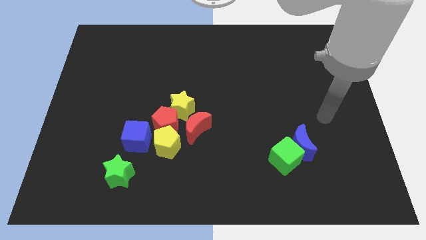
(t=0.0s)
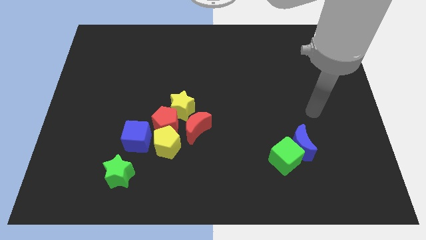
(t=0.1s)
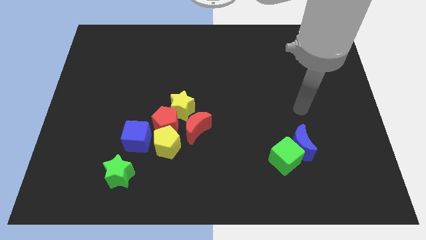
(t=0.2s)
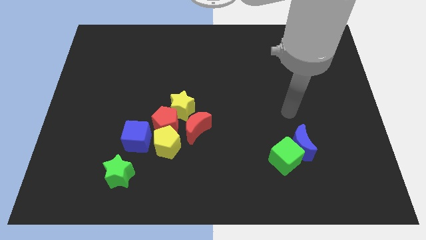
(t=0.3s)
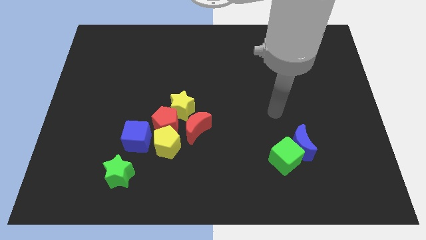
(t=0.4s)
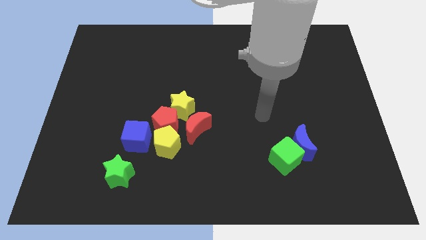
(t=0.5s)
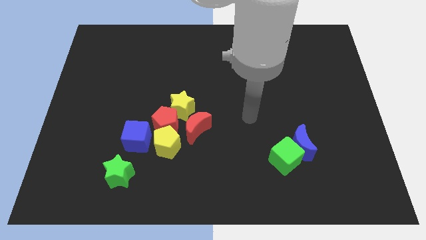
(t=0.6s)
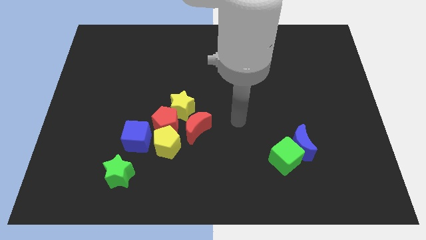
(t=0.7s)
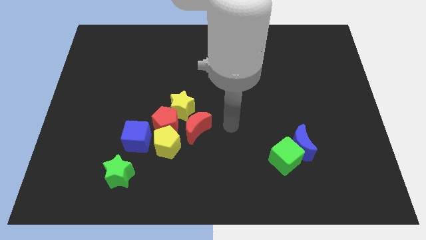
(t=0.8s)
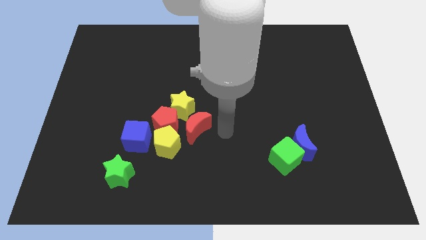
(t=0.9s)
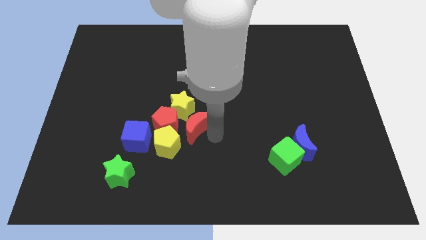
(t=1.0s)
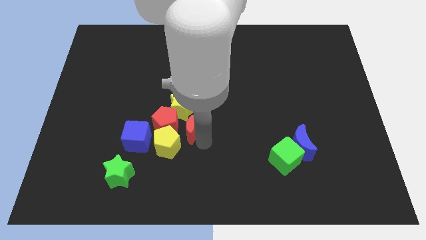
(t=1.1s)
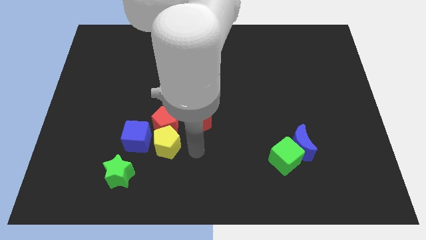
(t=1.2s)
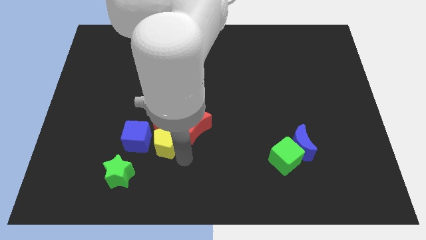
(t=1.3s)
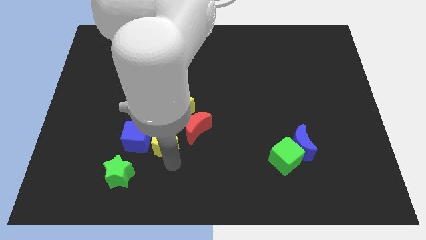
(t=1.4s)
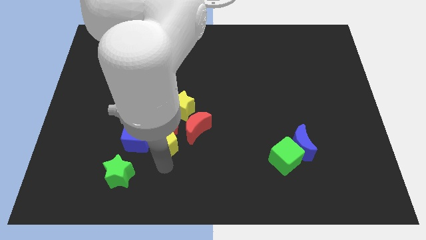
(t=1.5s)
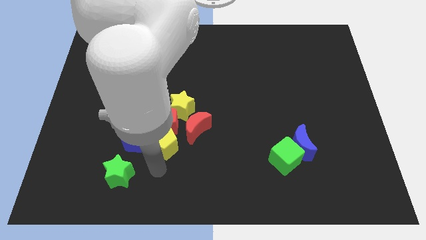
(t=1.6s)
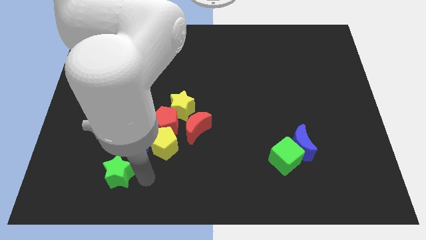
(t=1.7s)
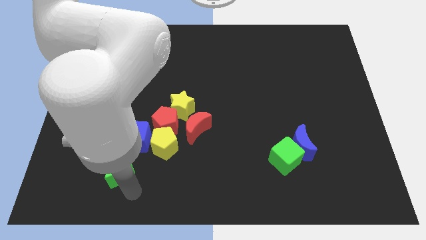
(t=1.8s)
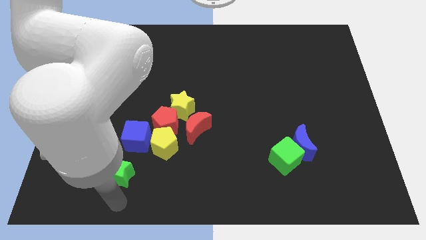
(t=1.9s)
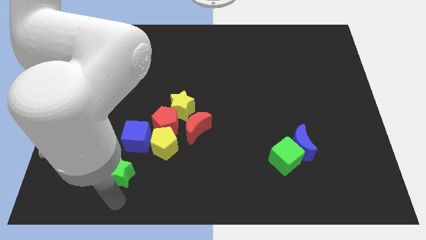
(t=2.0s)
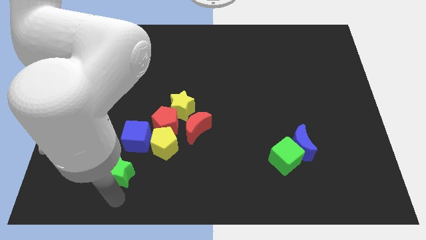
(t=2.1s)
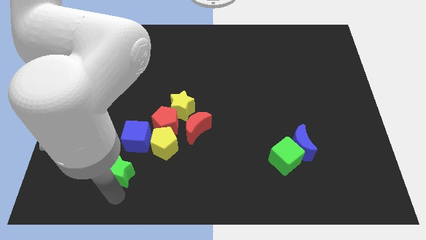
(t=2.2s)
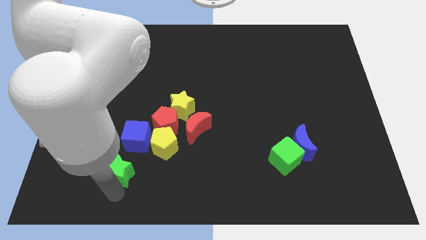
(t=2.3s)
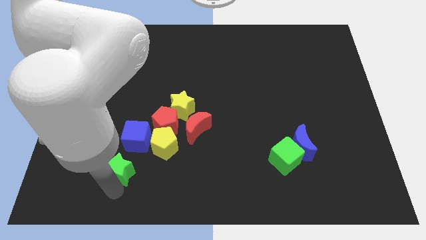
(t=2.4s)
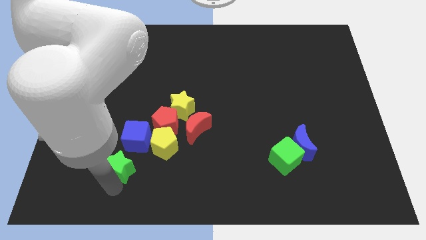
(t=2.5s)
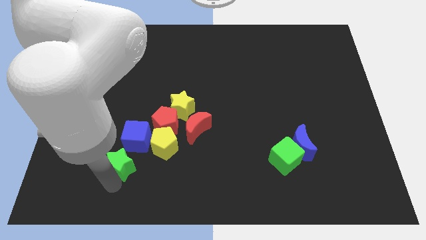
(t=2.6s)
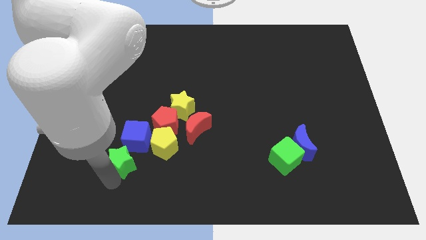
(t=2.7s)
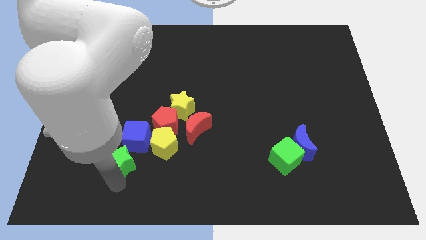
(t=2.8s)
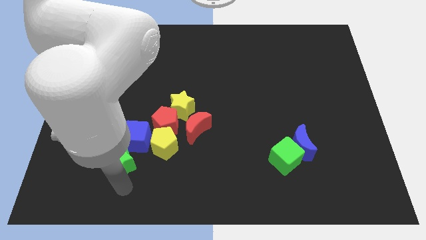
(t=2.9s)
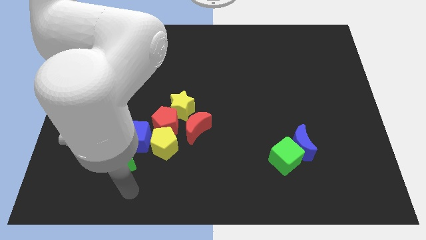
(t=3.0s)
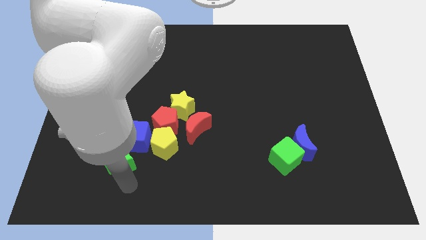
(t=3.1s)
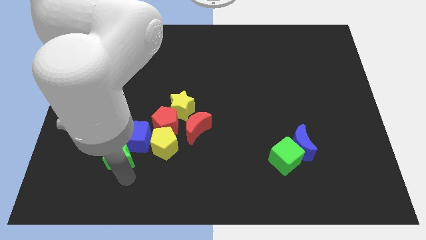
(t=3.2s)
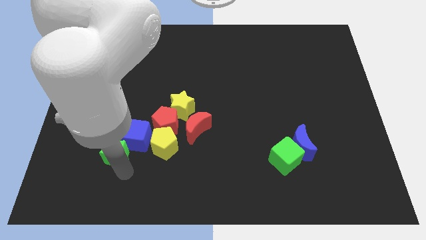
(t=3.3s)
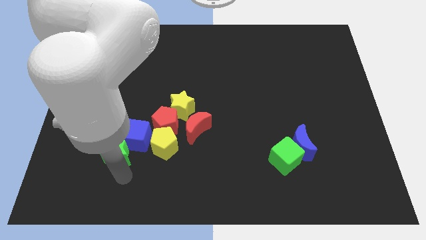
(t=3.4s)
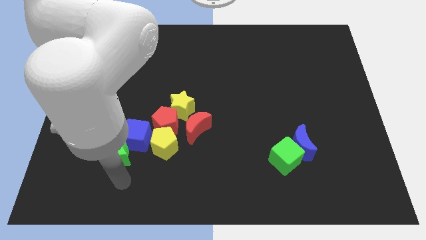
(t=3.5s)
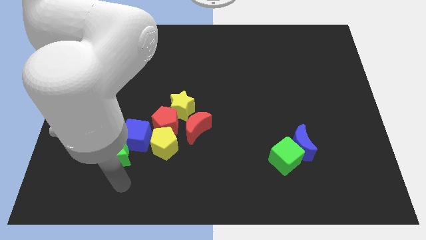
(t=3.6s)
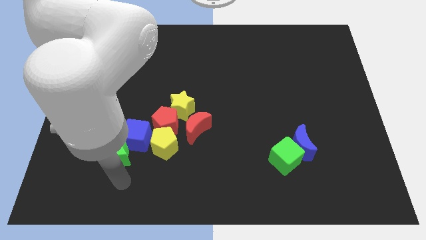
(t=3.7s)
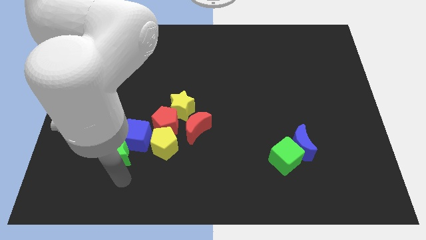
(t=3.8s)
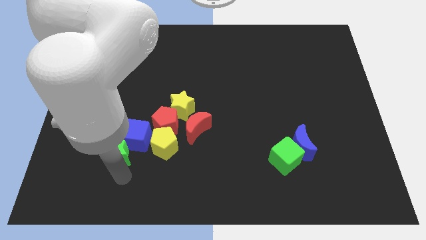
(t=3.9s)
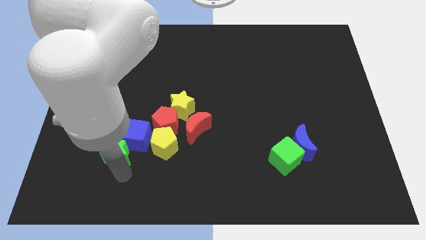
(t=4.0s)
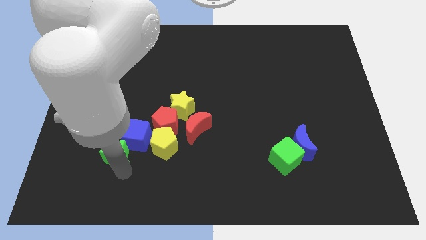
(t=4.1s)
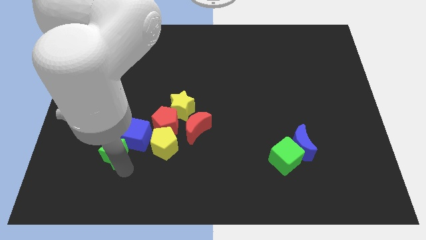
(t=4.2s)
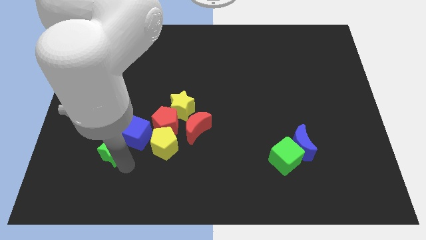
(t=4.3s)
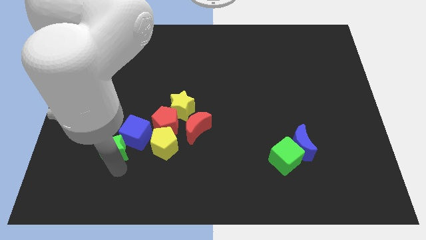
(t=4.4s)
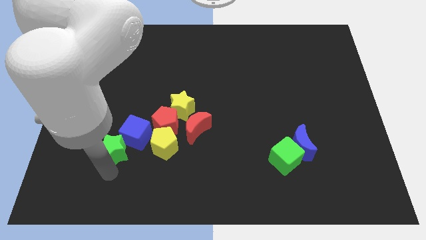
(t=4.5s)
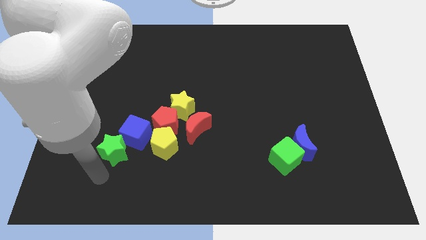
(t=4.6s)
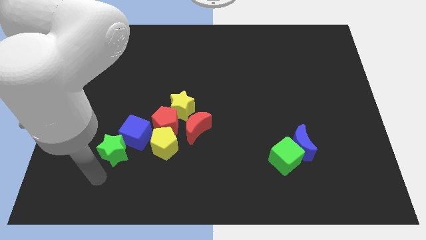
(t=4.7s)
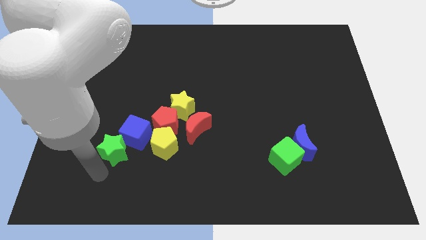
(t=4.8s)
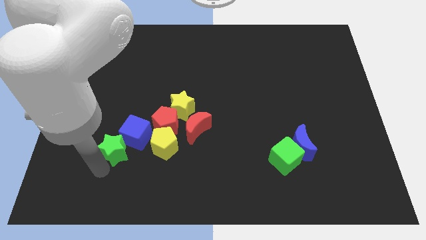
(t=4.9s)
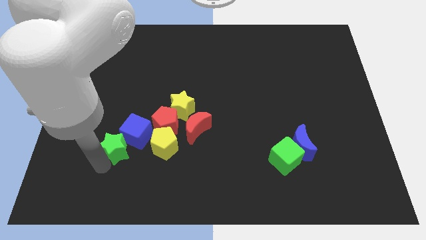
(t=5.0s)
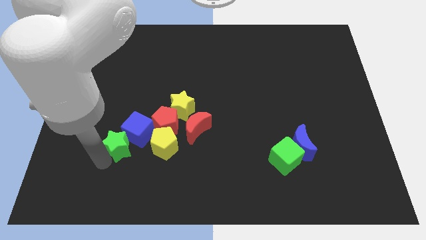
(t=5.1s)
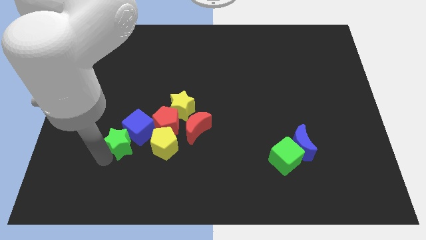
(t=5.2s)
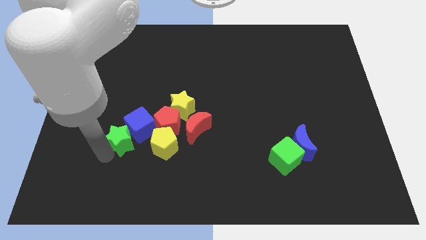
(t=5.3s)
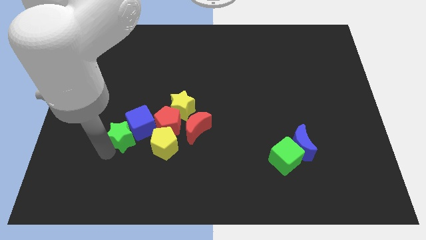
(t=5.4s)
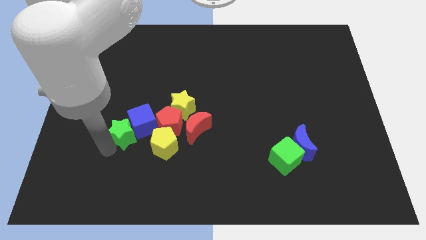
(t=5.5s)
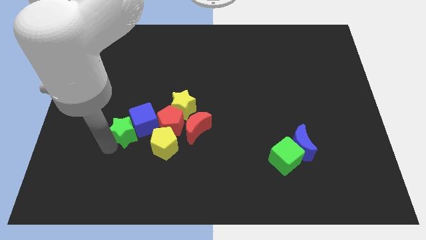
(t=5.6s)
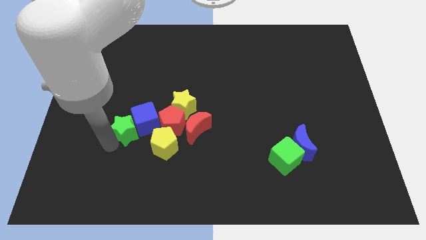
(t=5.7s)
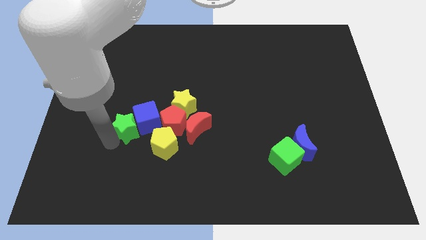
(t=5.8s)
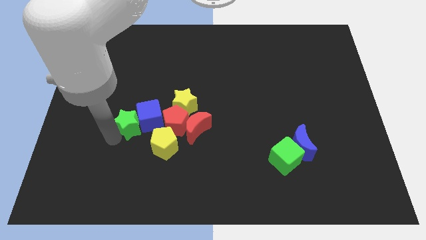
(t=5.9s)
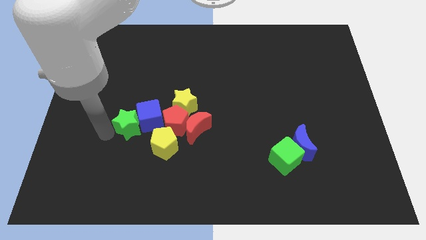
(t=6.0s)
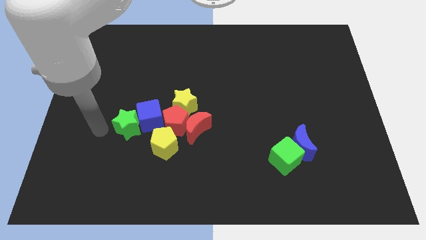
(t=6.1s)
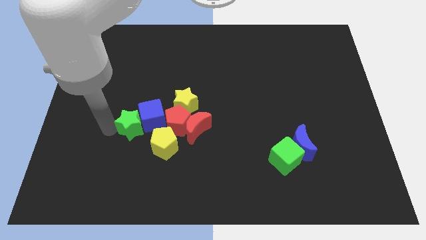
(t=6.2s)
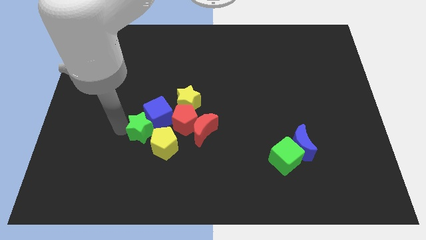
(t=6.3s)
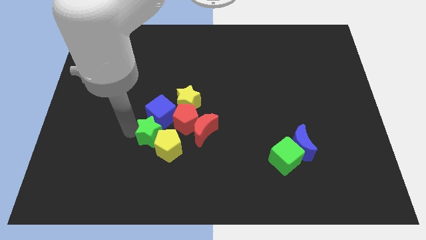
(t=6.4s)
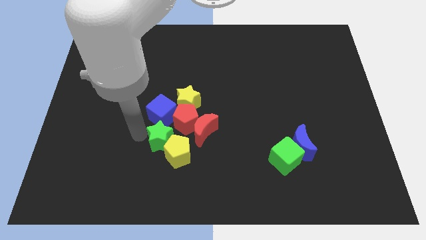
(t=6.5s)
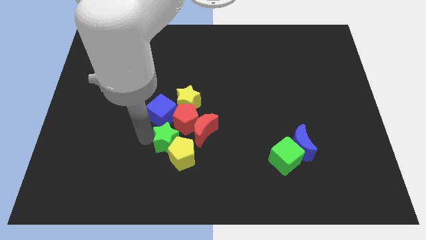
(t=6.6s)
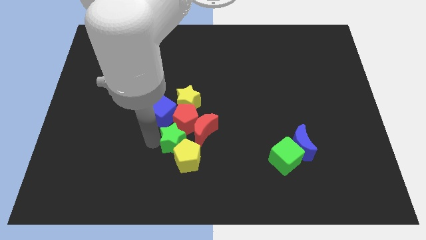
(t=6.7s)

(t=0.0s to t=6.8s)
slide the green star close to the red pentagon

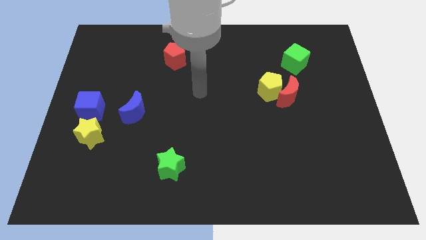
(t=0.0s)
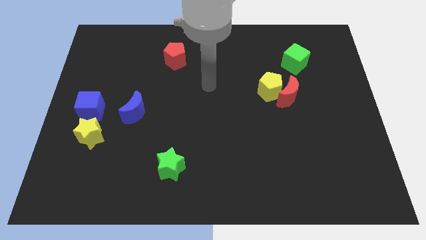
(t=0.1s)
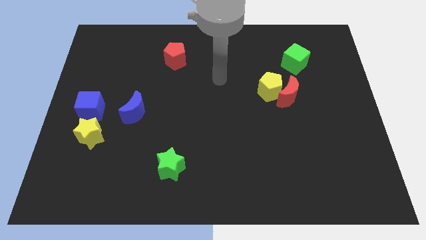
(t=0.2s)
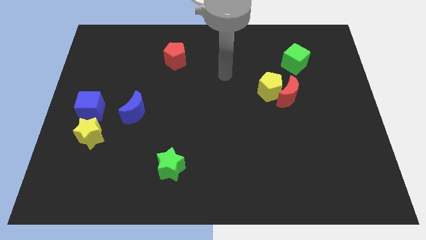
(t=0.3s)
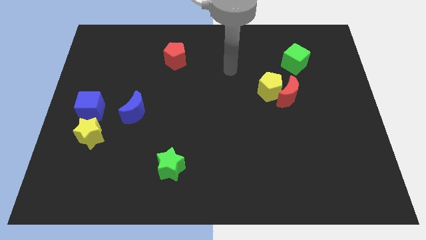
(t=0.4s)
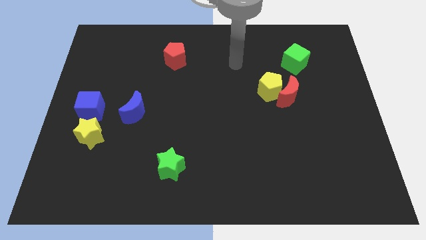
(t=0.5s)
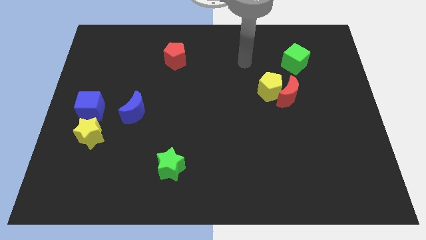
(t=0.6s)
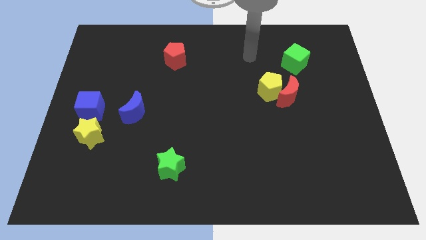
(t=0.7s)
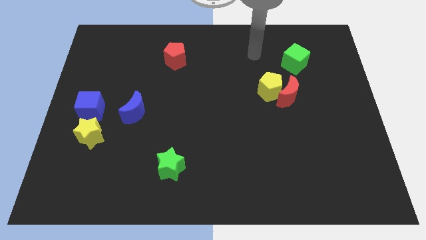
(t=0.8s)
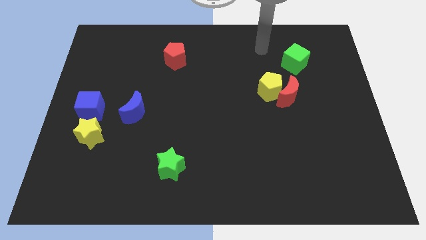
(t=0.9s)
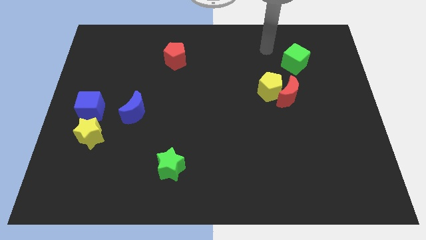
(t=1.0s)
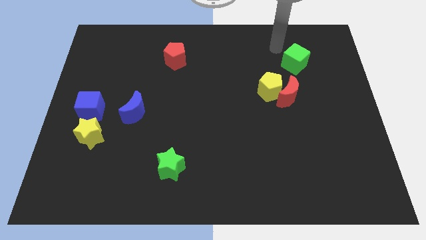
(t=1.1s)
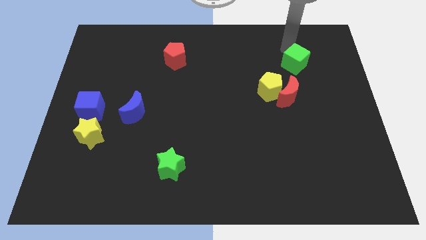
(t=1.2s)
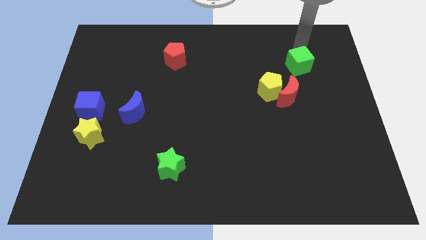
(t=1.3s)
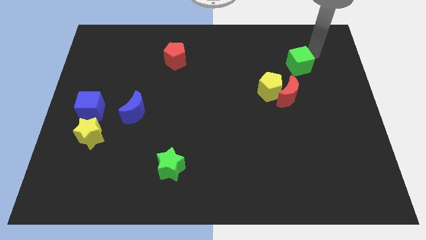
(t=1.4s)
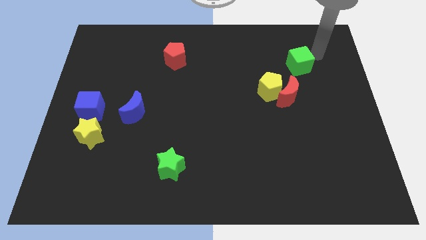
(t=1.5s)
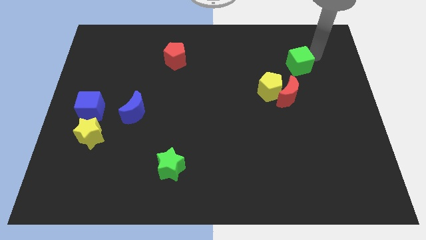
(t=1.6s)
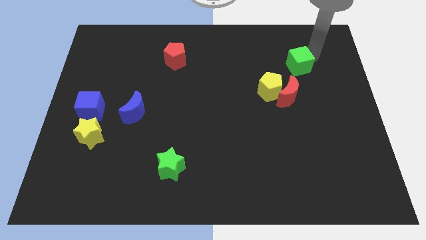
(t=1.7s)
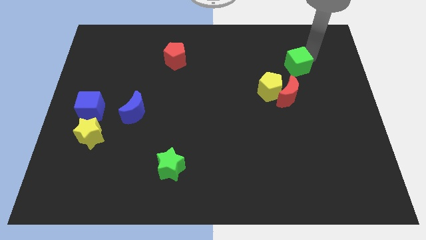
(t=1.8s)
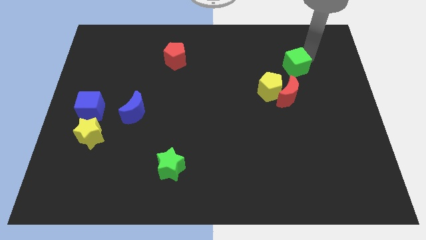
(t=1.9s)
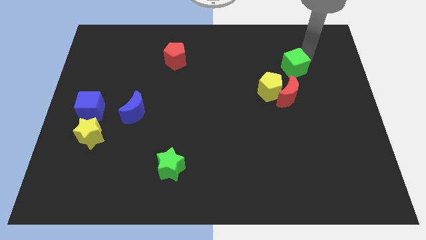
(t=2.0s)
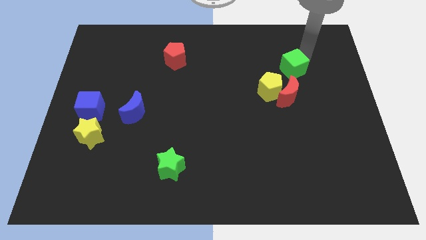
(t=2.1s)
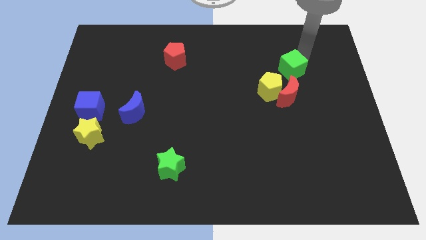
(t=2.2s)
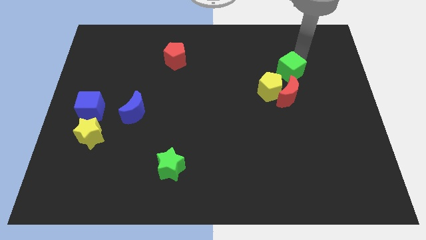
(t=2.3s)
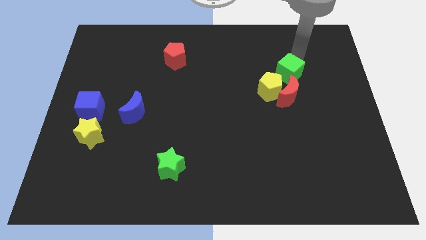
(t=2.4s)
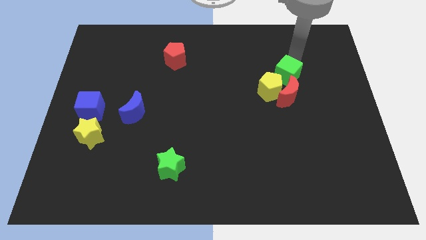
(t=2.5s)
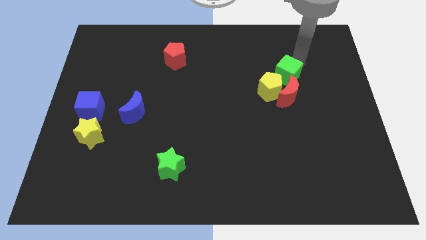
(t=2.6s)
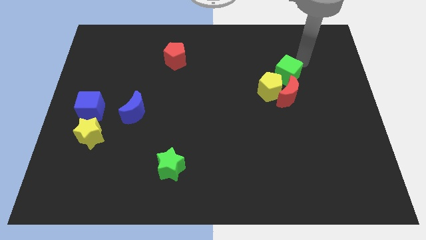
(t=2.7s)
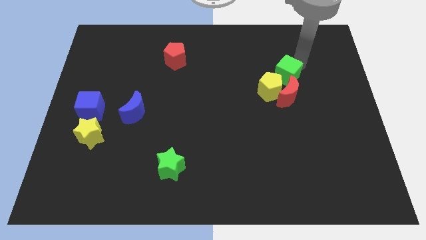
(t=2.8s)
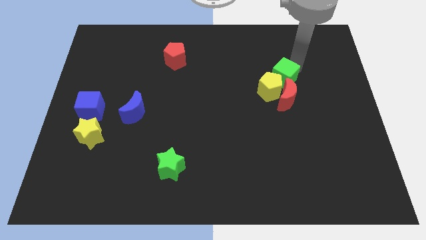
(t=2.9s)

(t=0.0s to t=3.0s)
slide the green cube next to the yellow pentagon
